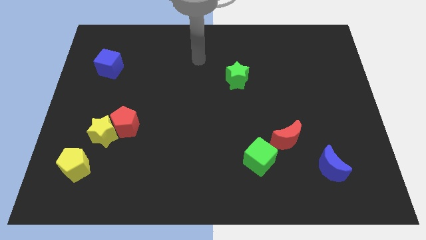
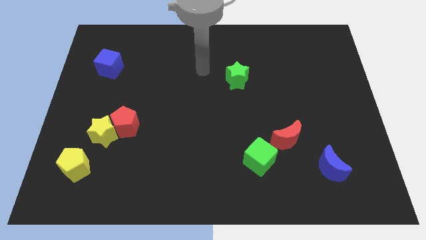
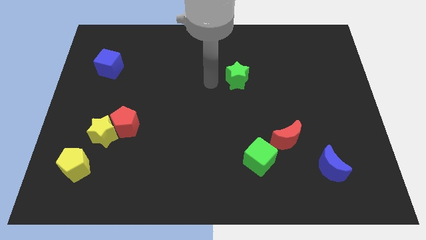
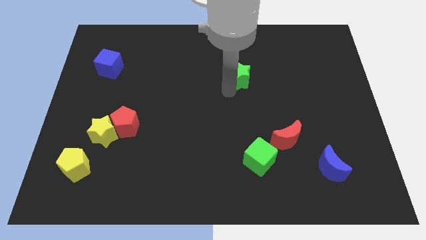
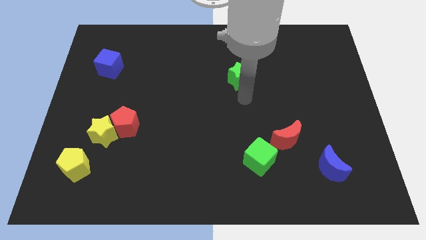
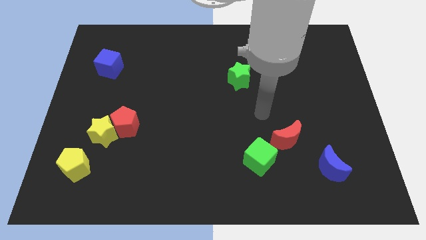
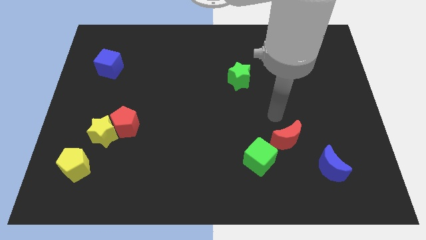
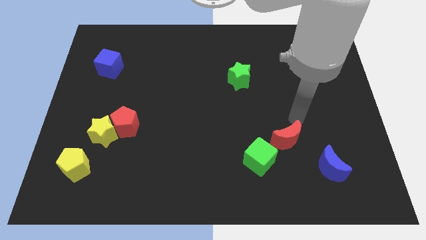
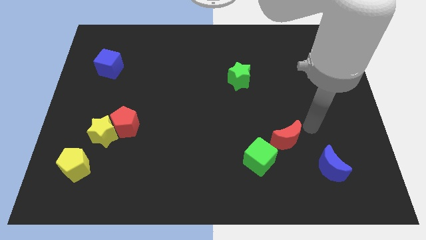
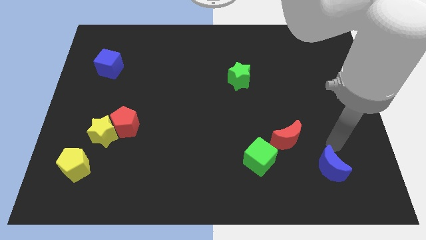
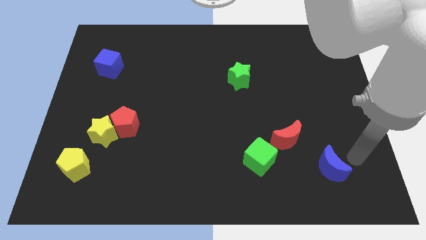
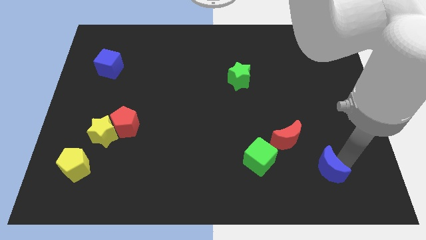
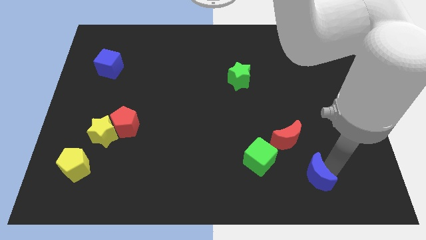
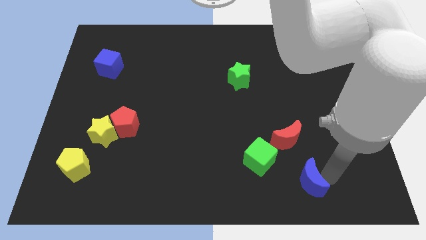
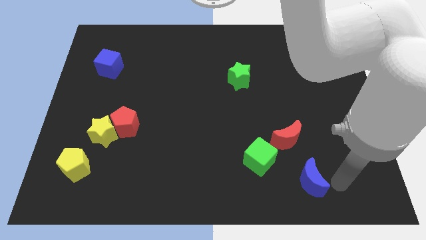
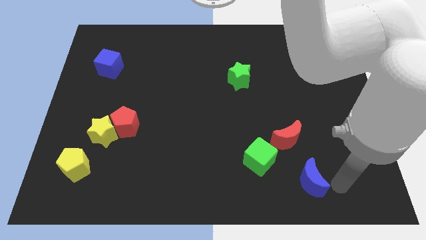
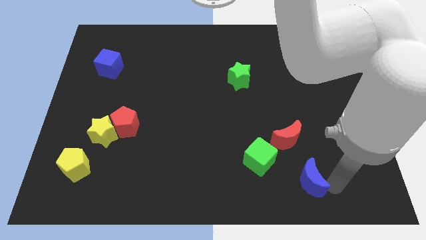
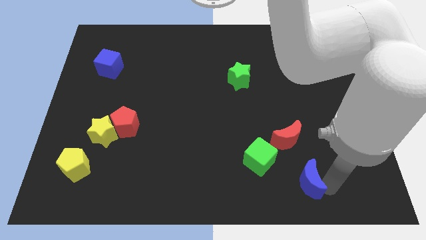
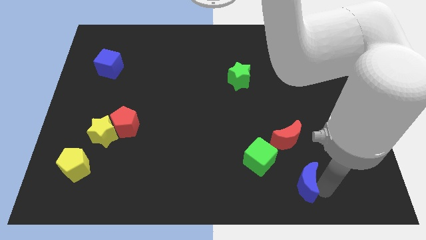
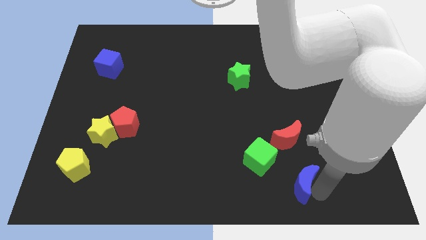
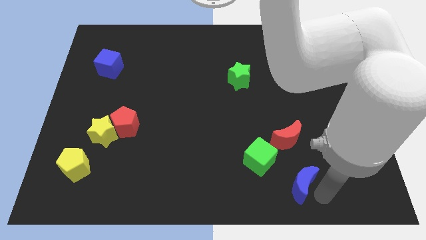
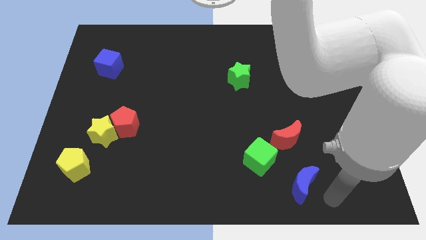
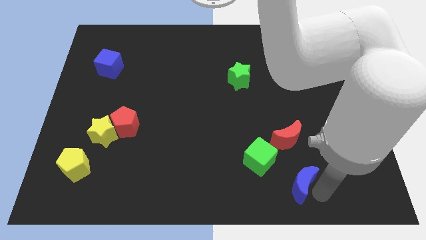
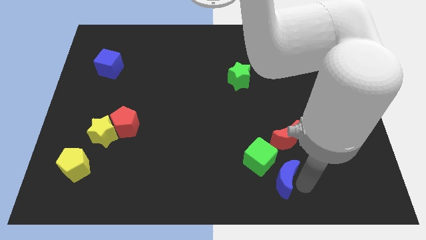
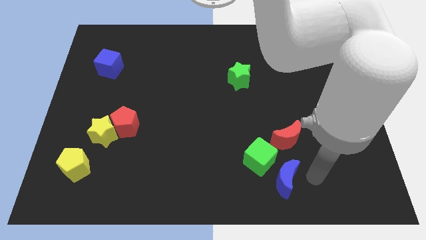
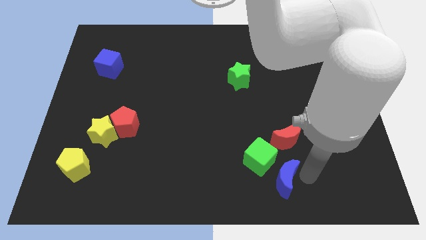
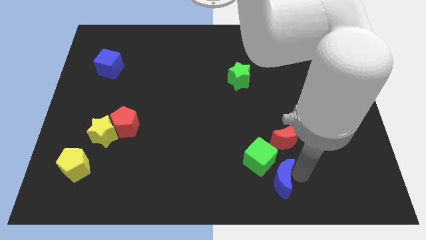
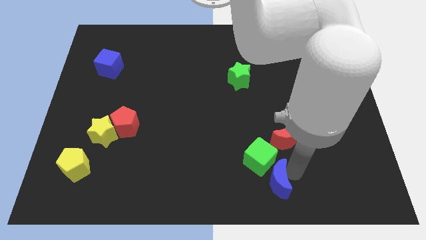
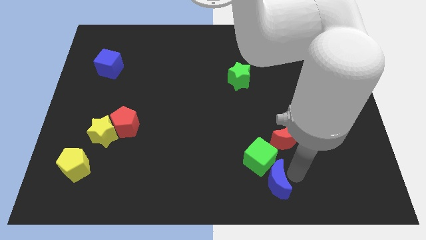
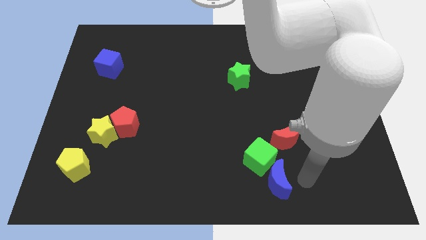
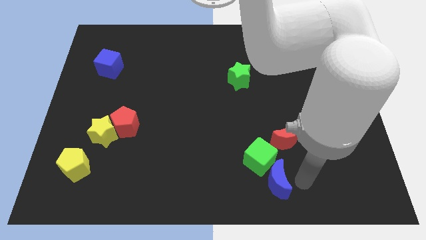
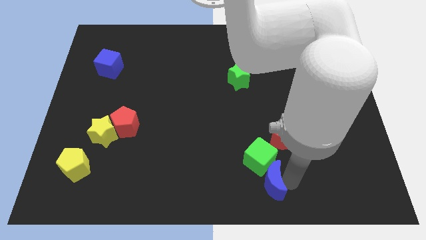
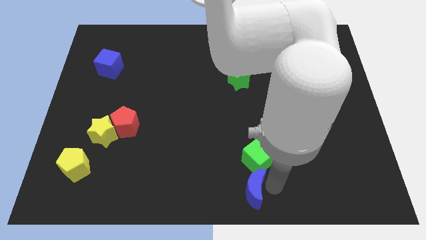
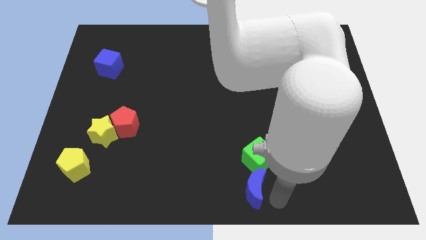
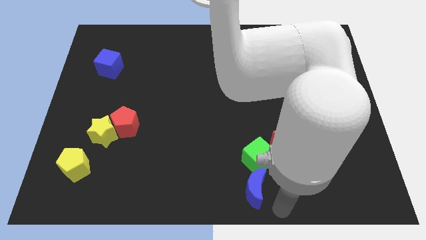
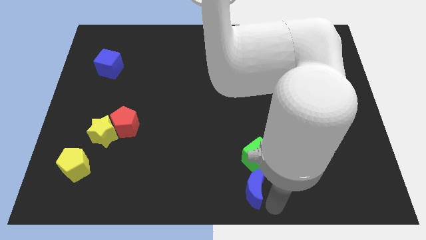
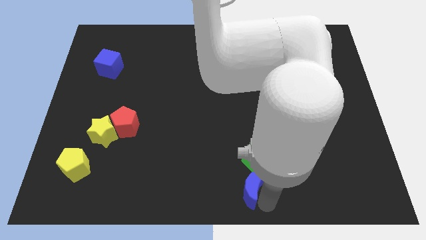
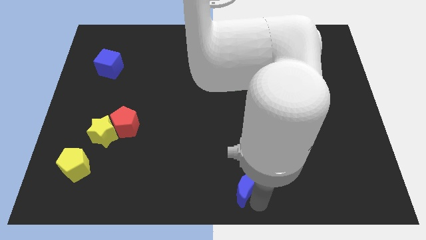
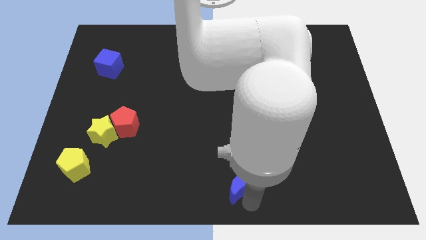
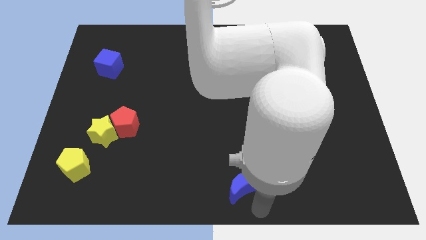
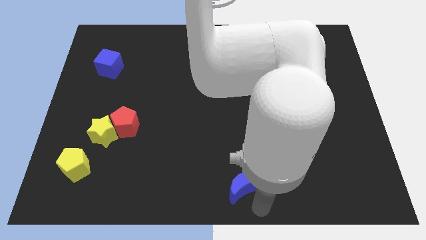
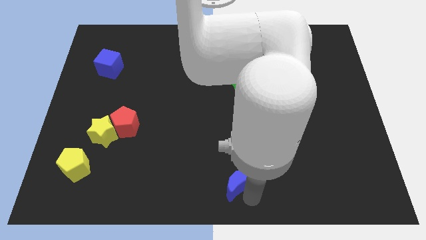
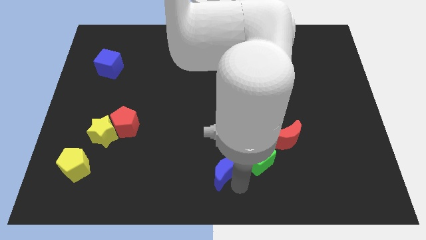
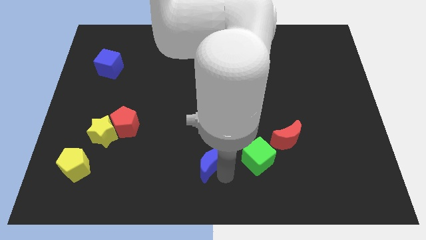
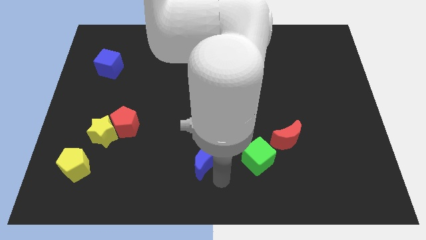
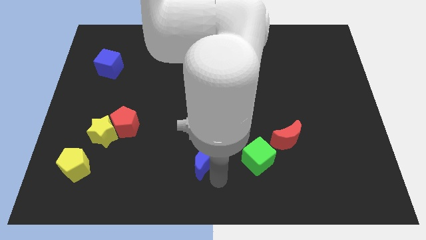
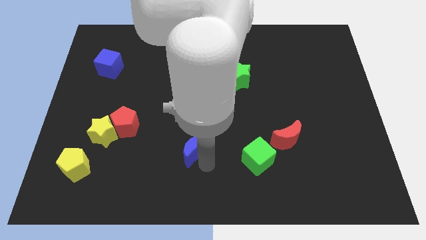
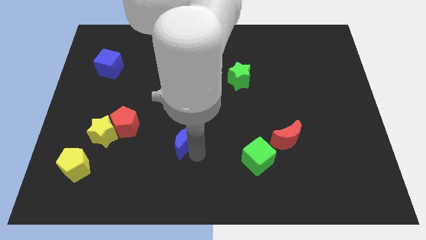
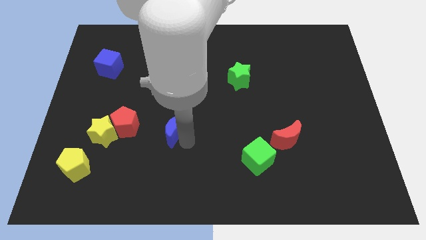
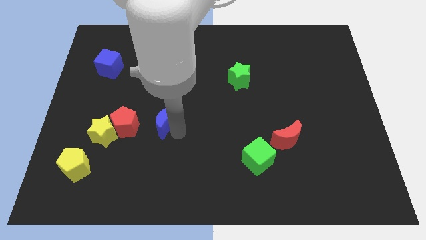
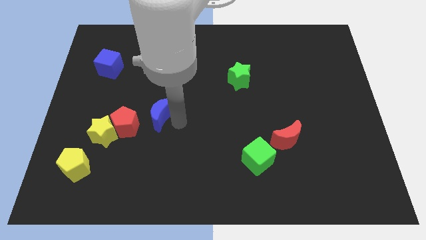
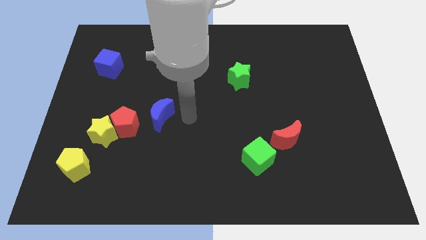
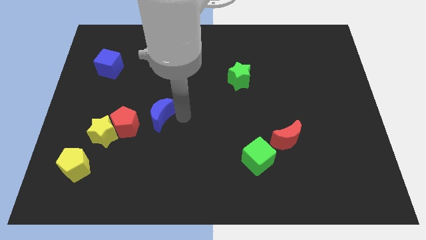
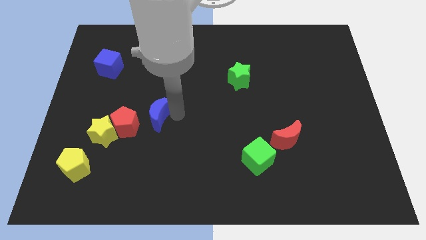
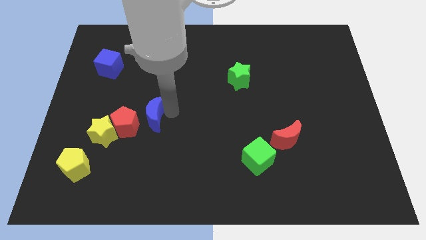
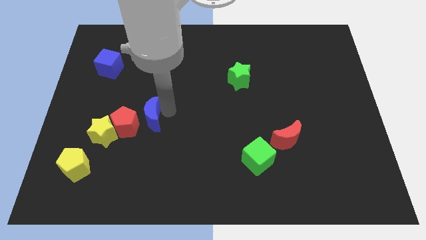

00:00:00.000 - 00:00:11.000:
put the blue moon diagonally up and to the right of the yellow star

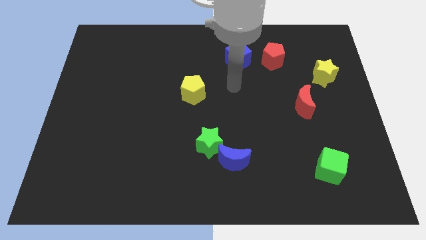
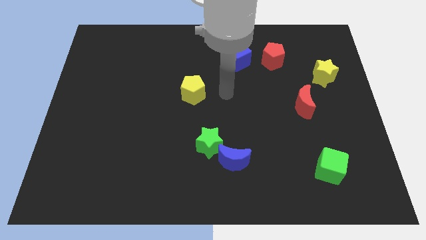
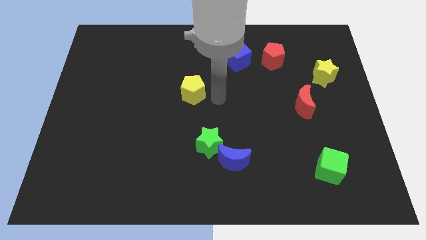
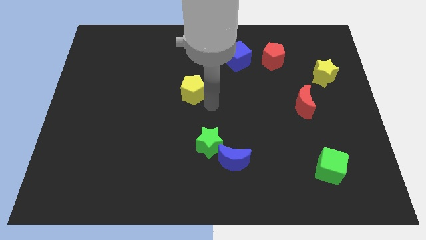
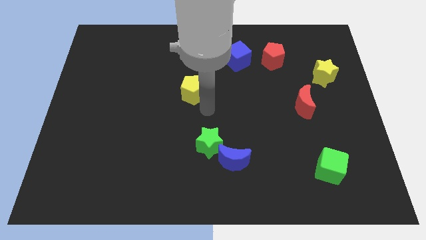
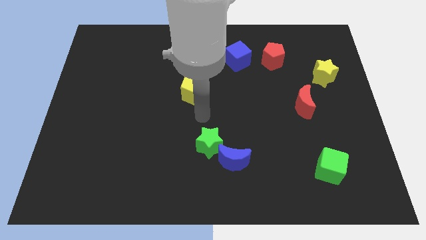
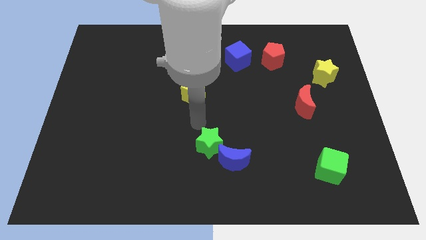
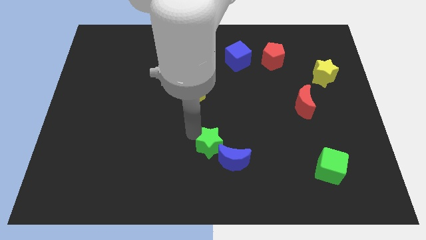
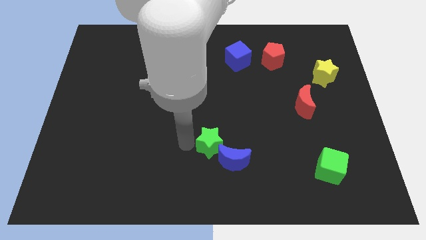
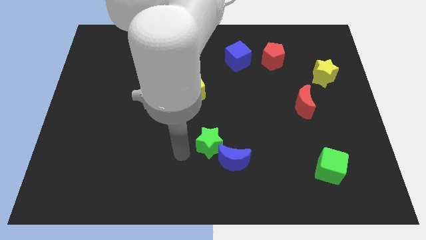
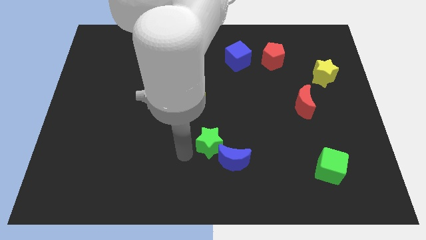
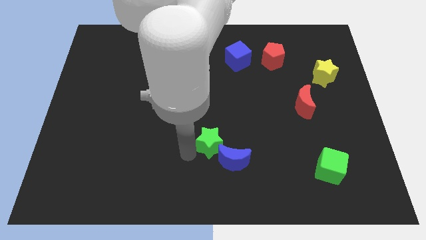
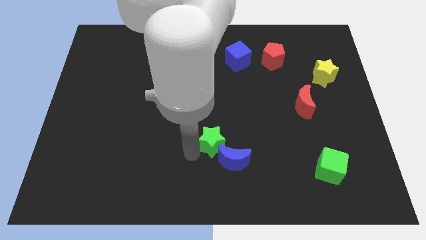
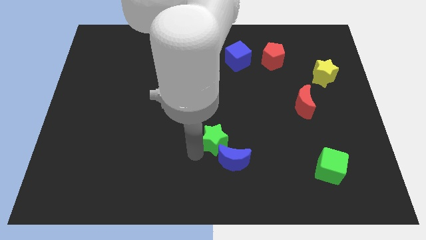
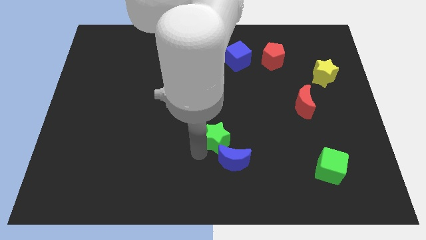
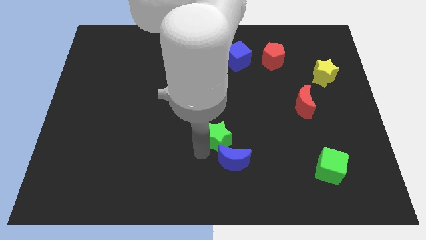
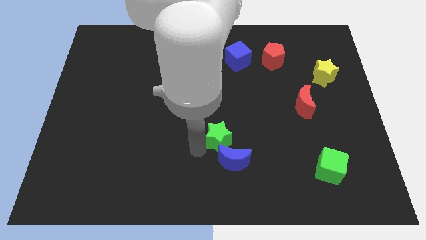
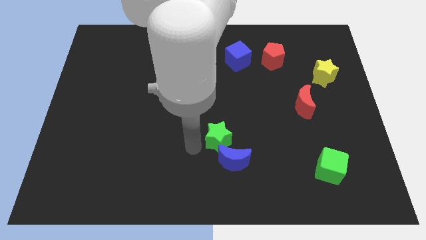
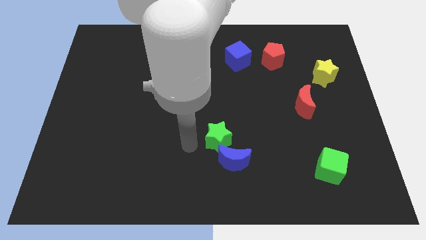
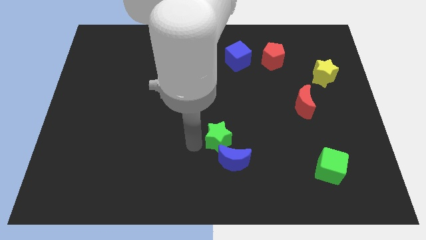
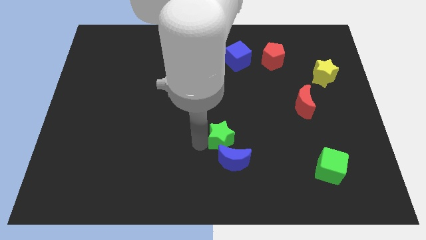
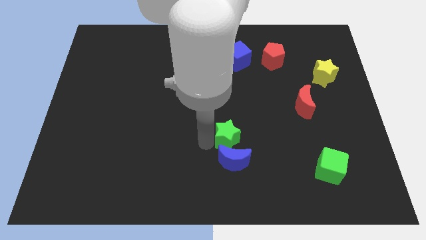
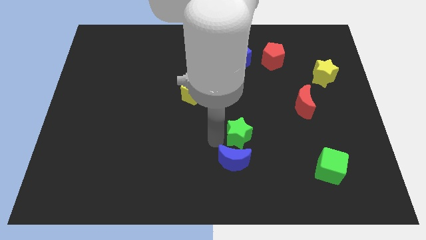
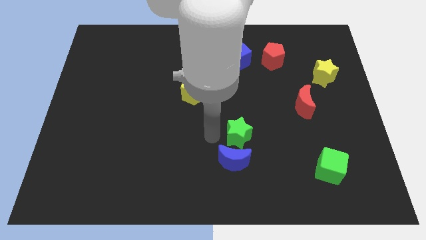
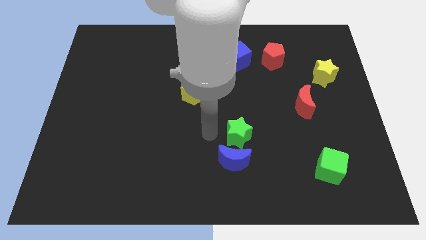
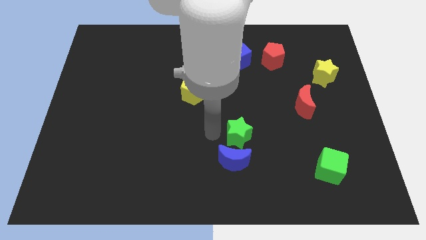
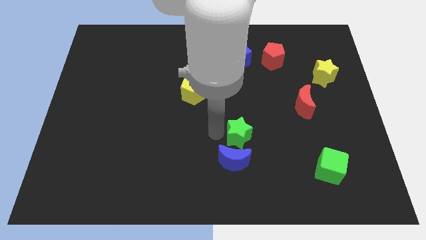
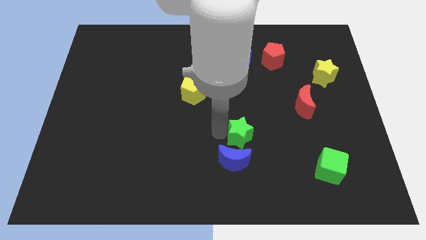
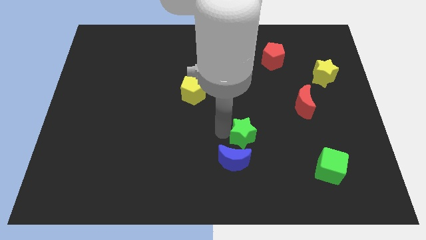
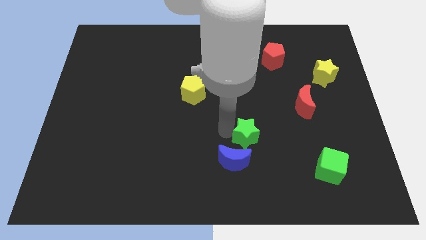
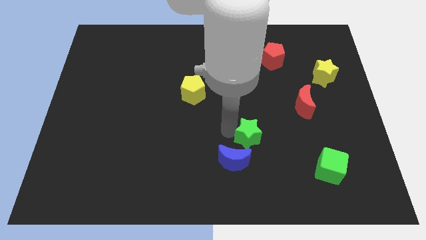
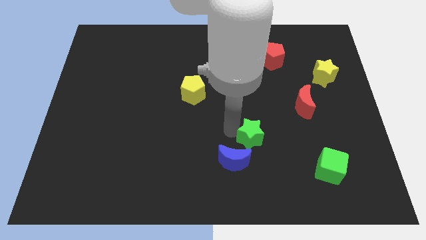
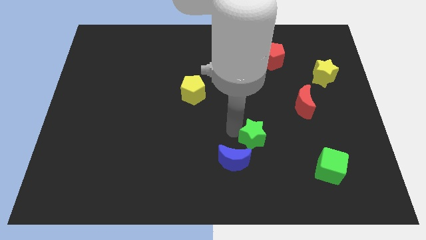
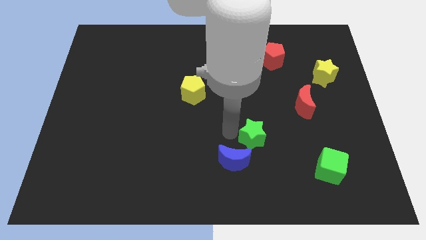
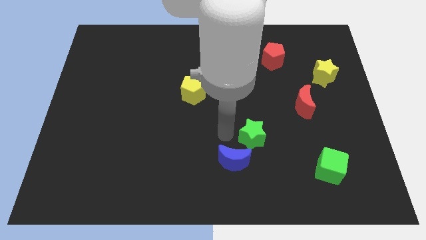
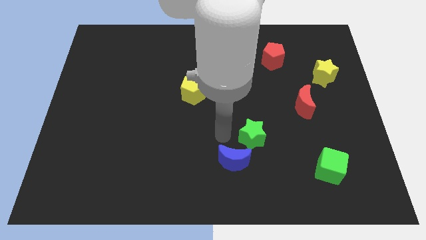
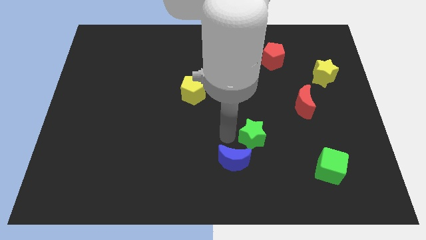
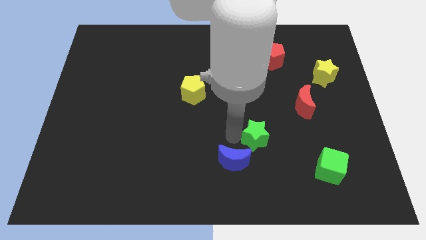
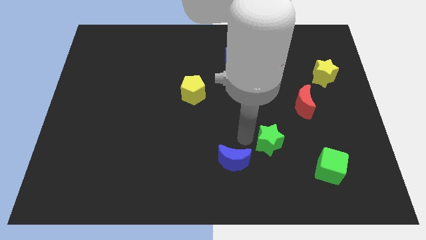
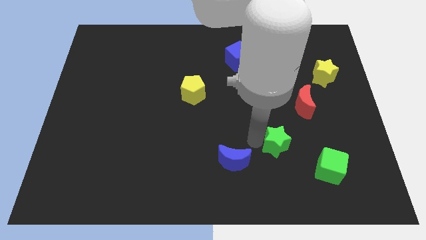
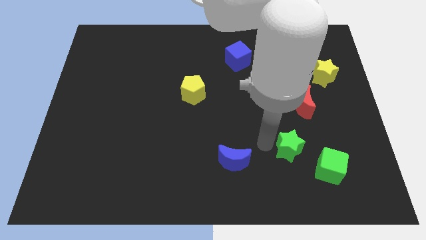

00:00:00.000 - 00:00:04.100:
move the green star to the bottom side of the red moon
